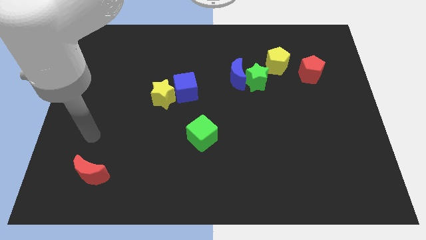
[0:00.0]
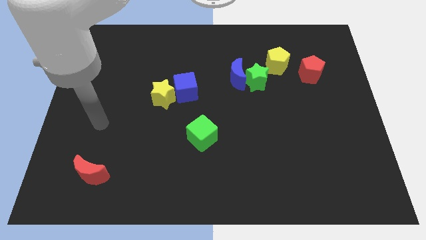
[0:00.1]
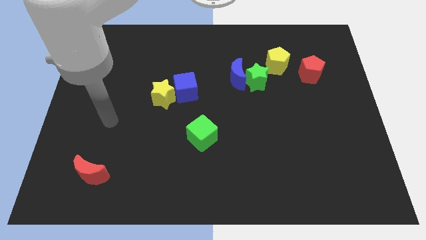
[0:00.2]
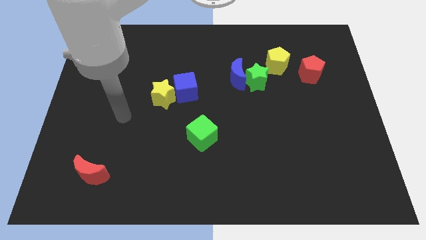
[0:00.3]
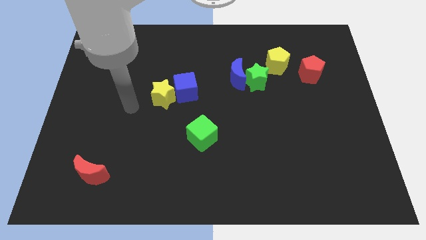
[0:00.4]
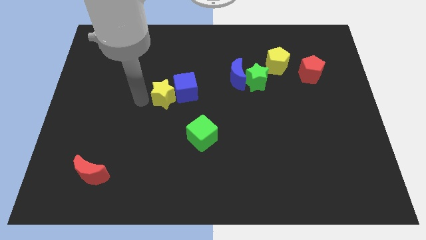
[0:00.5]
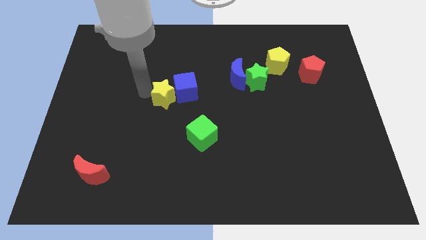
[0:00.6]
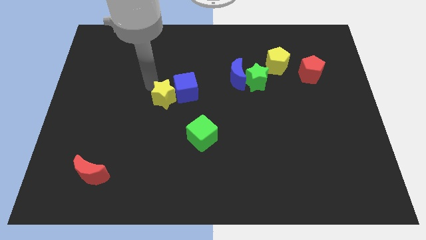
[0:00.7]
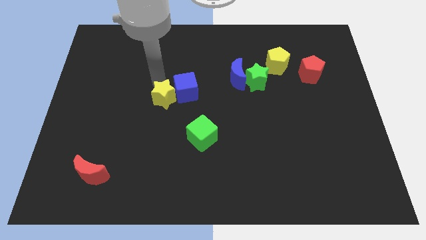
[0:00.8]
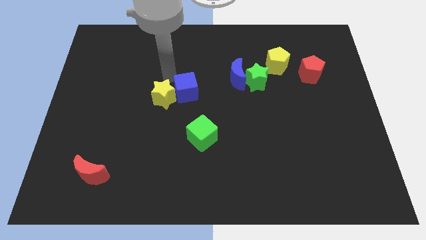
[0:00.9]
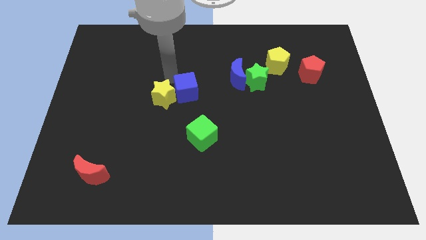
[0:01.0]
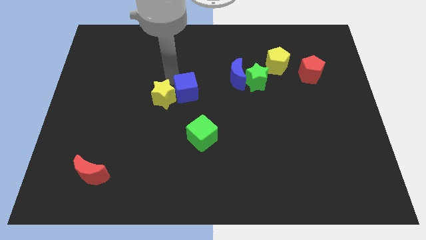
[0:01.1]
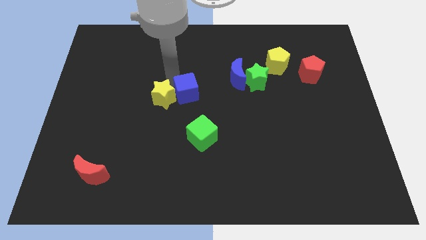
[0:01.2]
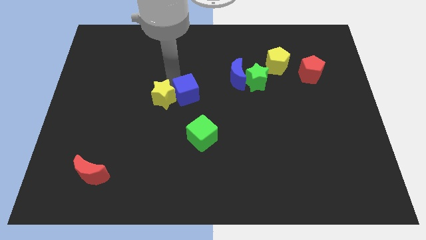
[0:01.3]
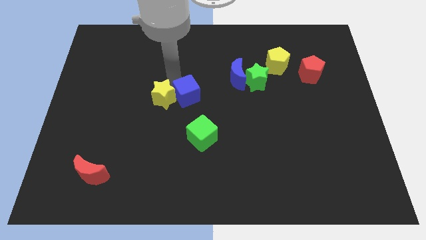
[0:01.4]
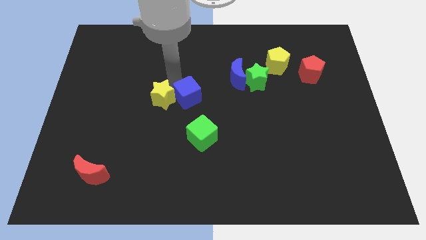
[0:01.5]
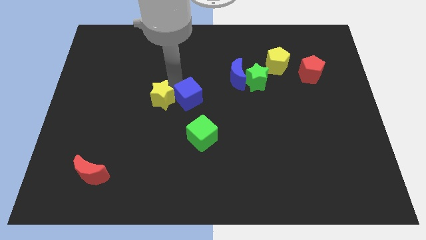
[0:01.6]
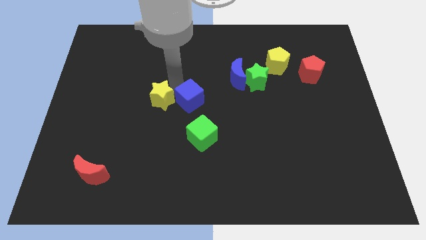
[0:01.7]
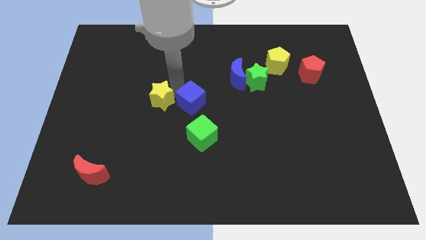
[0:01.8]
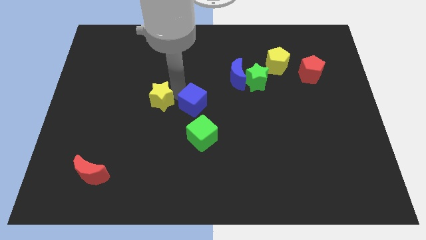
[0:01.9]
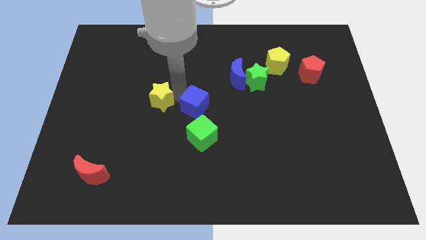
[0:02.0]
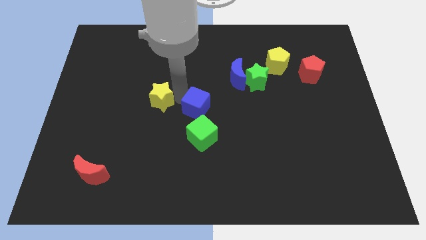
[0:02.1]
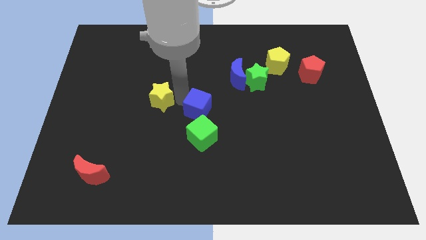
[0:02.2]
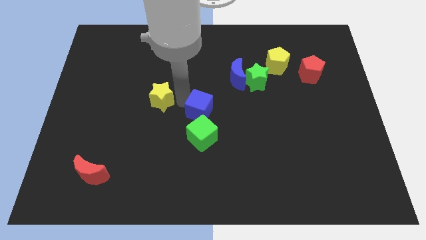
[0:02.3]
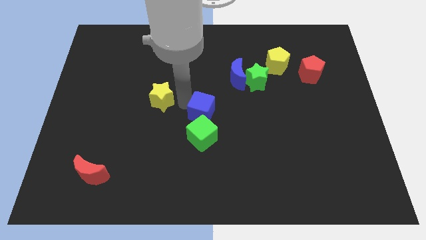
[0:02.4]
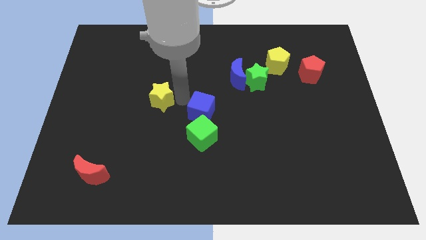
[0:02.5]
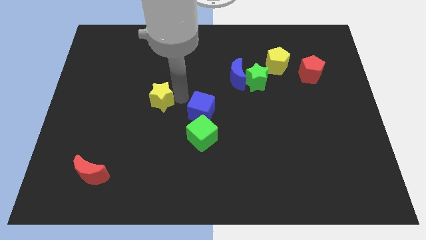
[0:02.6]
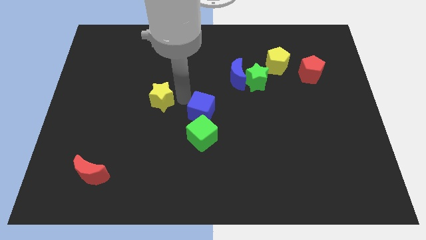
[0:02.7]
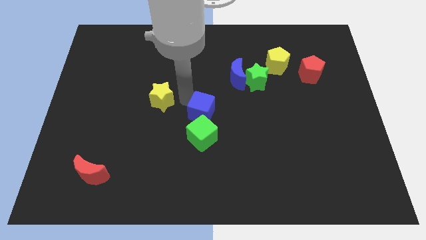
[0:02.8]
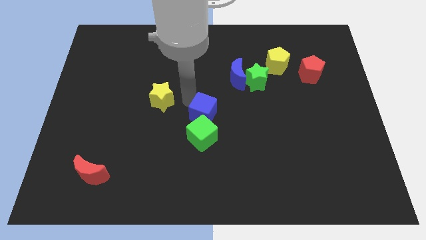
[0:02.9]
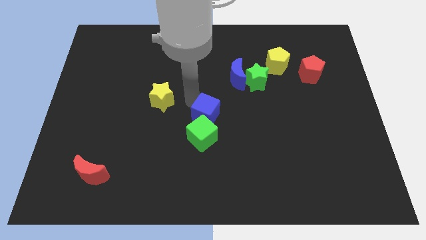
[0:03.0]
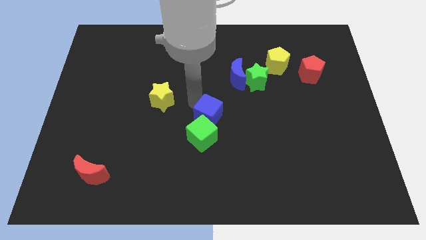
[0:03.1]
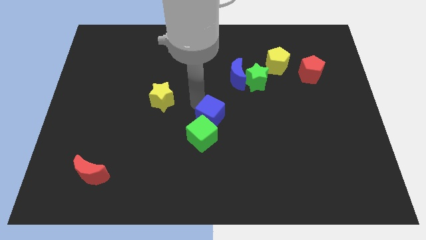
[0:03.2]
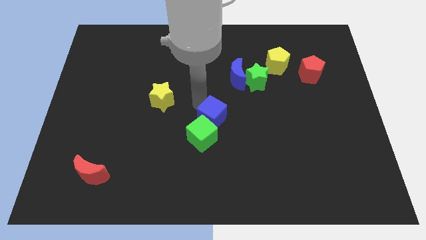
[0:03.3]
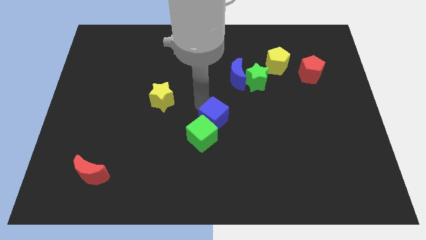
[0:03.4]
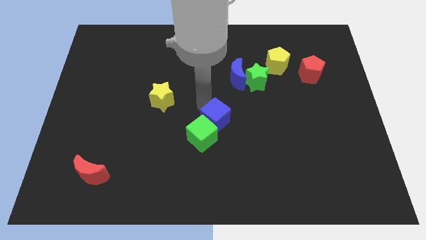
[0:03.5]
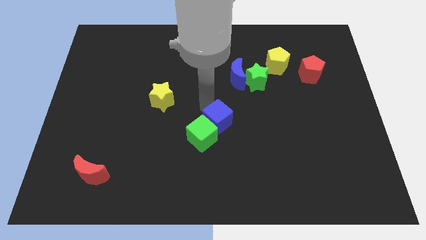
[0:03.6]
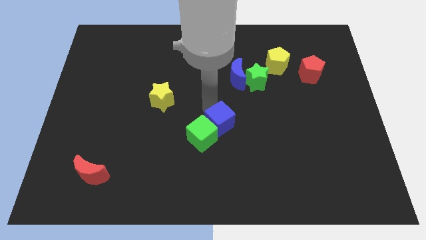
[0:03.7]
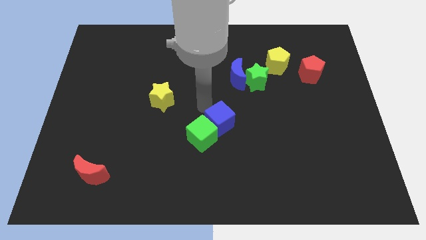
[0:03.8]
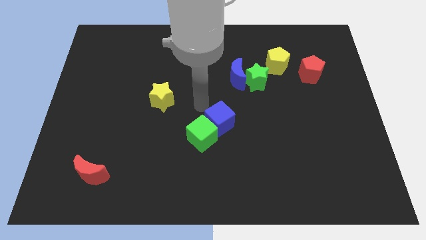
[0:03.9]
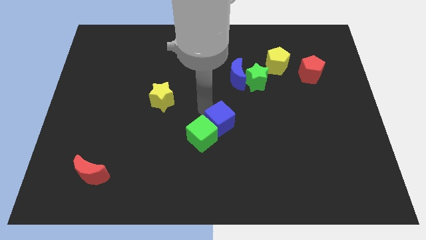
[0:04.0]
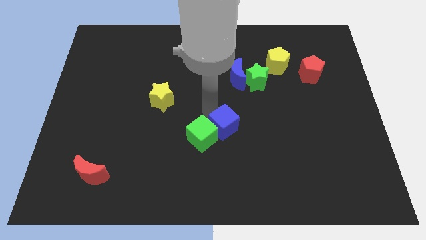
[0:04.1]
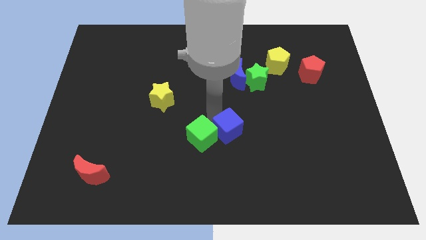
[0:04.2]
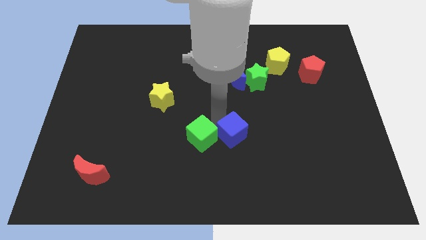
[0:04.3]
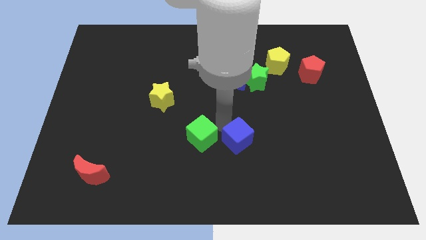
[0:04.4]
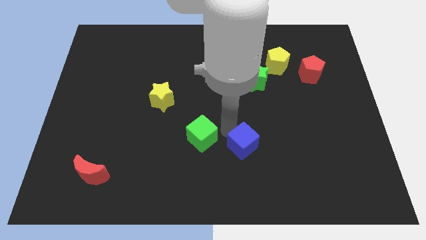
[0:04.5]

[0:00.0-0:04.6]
push the blue cube downwards and then to the right

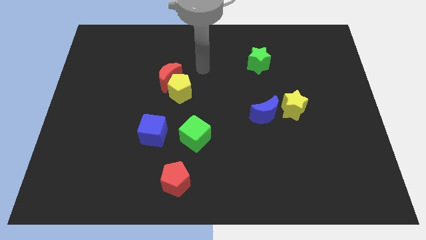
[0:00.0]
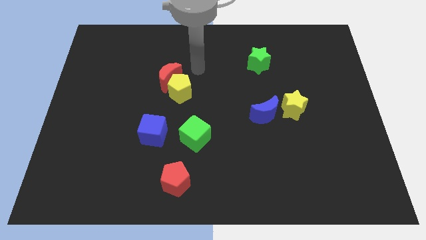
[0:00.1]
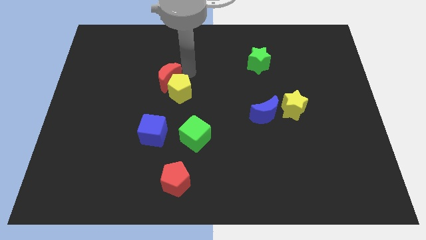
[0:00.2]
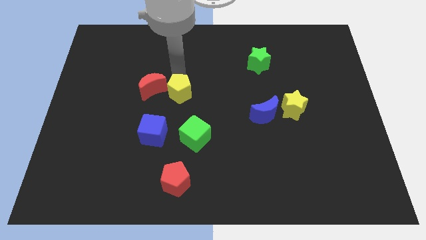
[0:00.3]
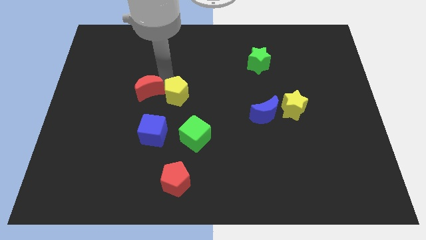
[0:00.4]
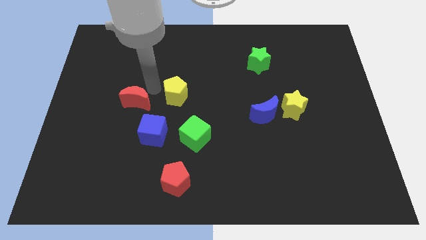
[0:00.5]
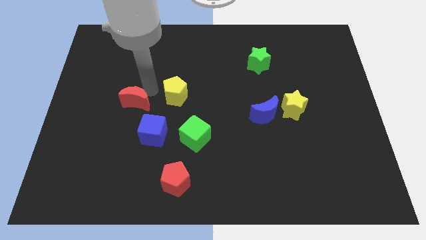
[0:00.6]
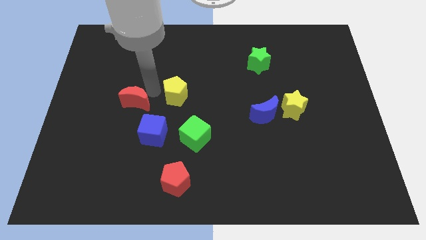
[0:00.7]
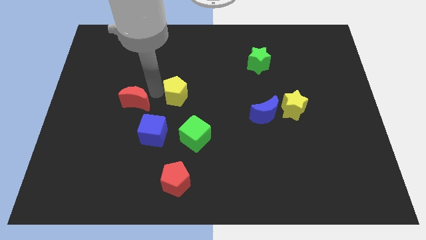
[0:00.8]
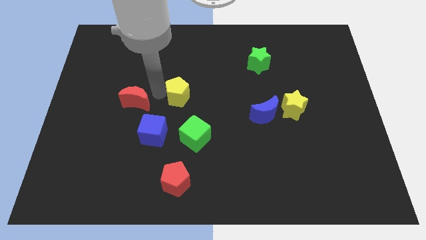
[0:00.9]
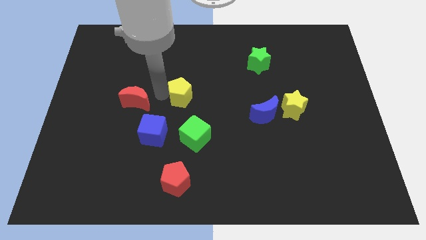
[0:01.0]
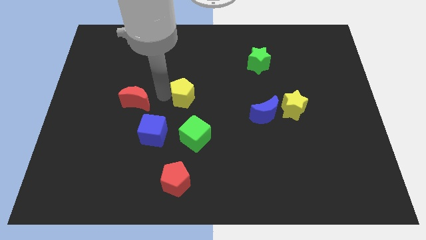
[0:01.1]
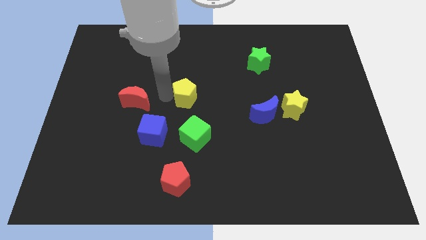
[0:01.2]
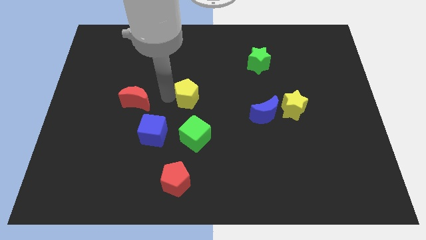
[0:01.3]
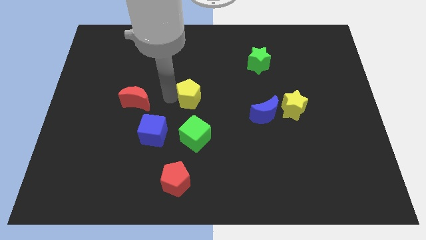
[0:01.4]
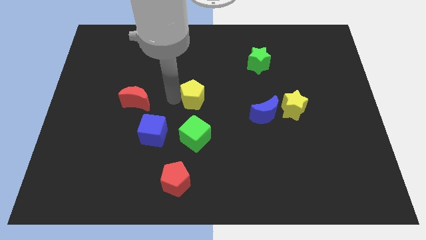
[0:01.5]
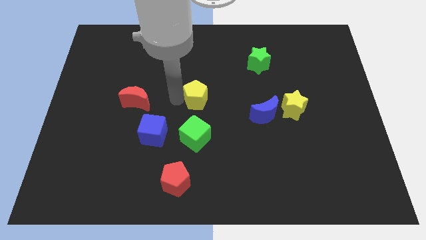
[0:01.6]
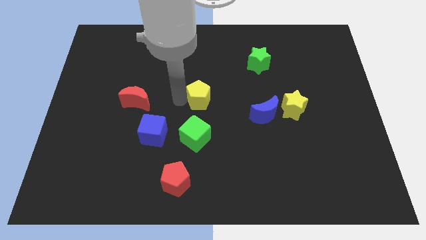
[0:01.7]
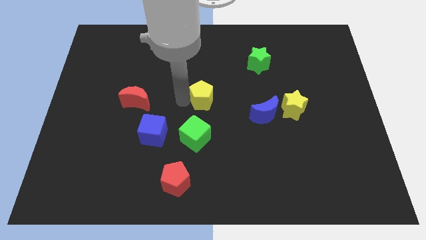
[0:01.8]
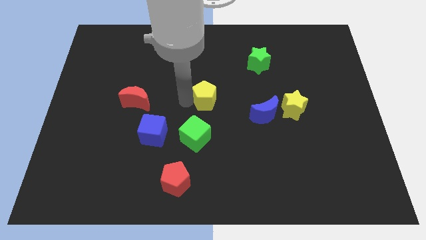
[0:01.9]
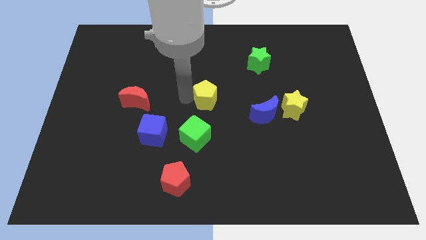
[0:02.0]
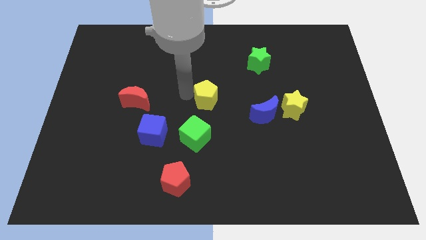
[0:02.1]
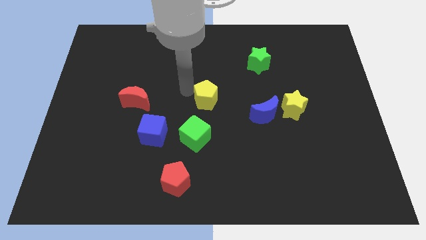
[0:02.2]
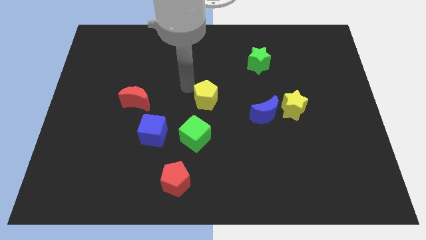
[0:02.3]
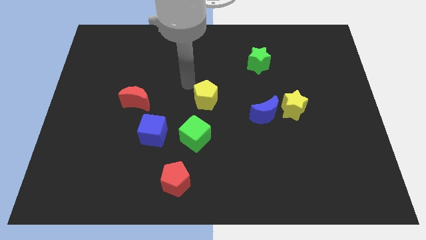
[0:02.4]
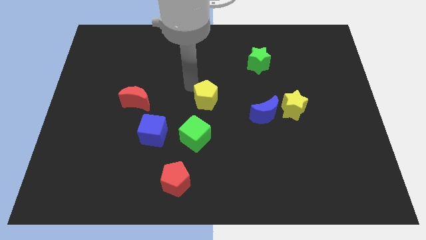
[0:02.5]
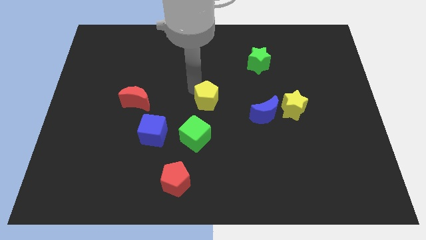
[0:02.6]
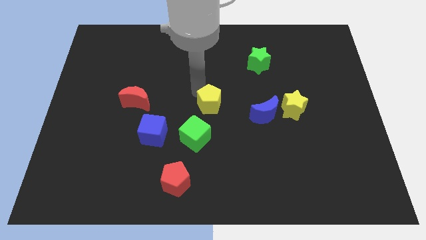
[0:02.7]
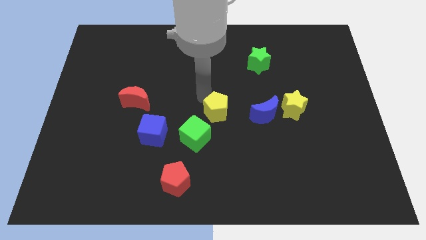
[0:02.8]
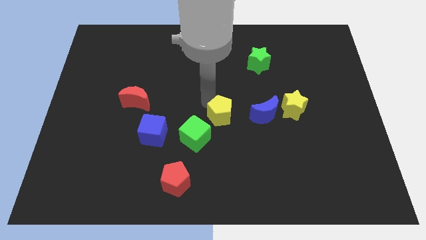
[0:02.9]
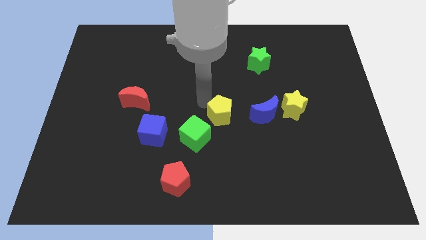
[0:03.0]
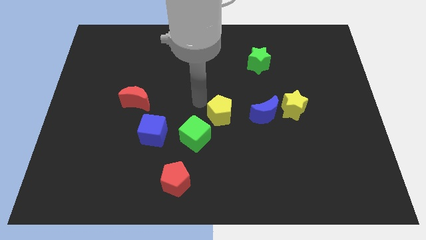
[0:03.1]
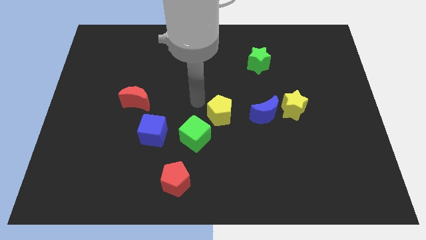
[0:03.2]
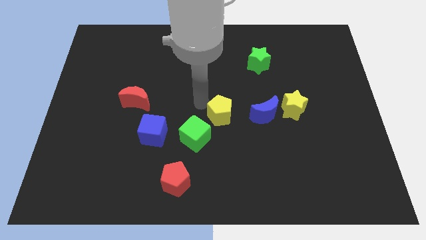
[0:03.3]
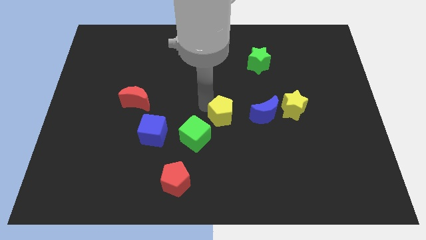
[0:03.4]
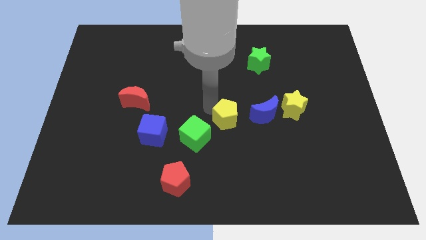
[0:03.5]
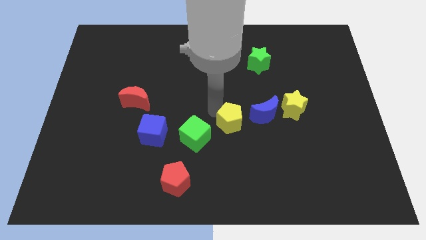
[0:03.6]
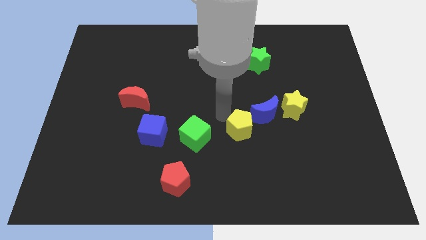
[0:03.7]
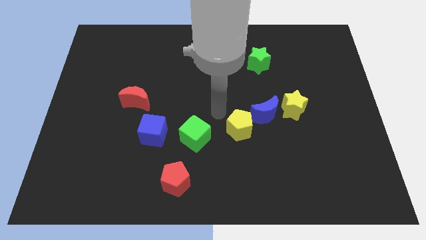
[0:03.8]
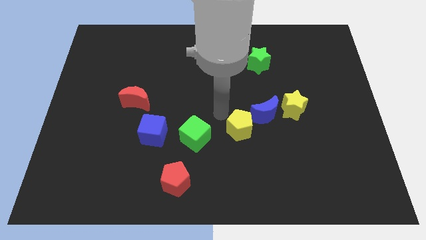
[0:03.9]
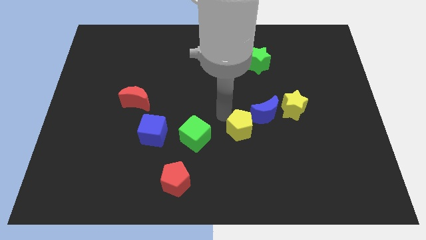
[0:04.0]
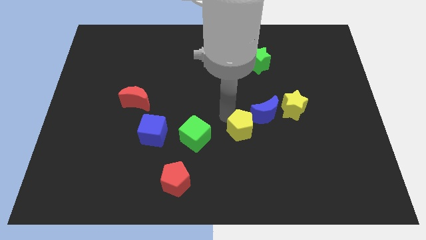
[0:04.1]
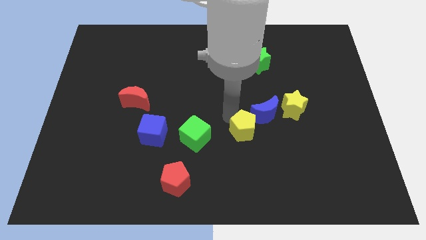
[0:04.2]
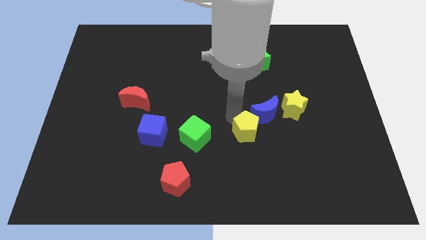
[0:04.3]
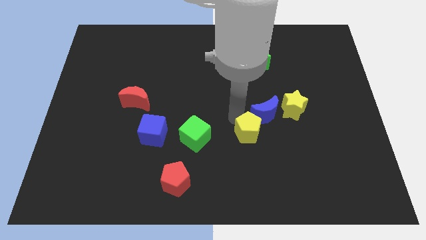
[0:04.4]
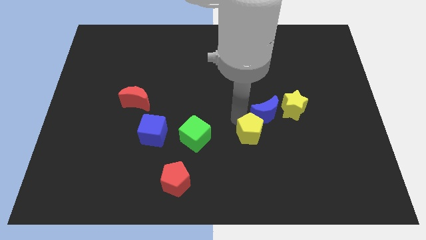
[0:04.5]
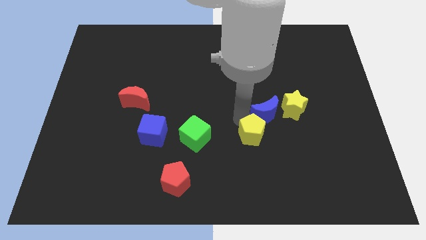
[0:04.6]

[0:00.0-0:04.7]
move the yellow pentagon downwards and to the right
